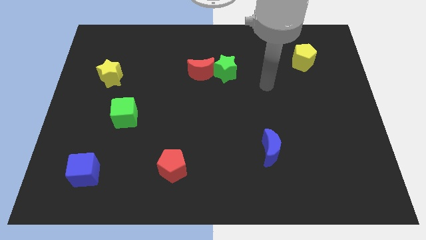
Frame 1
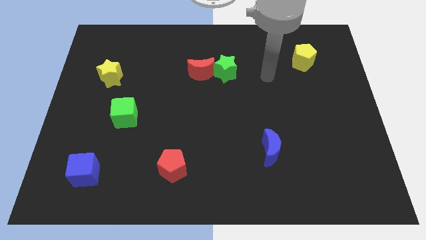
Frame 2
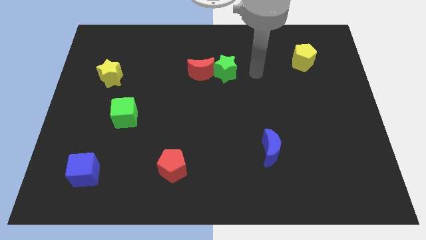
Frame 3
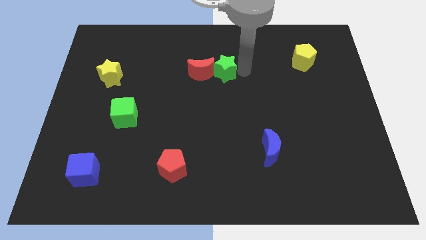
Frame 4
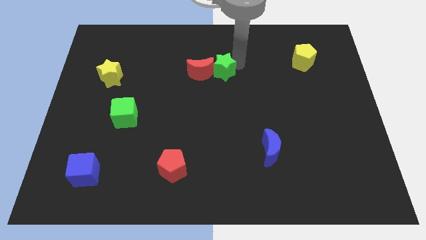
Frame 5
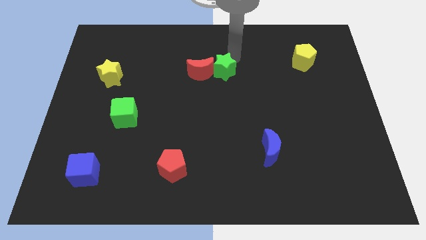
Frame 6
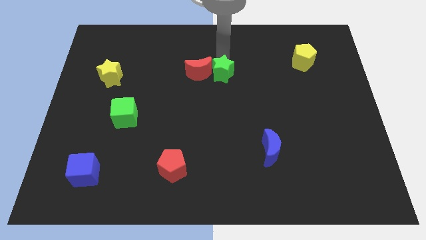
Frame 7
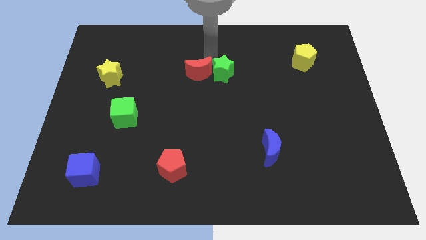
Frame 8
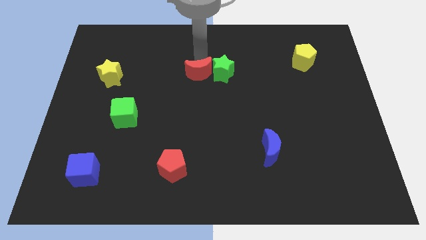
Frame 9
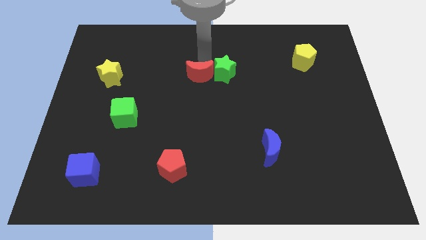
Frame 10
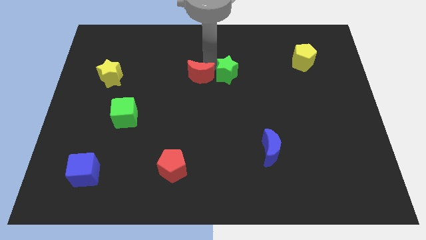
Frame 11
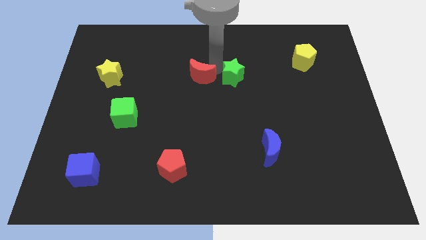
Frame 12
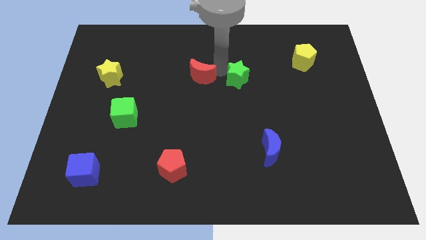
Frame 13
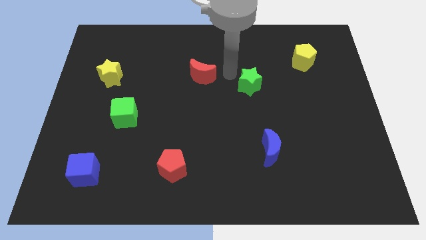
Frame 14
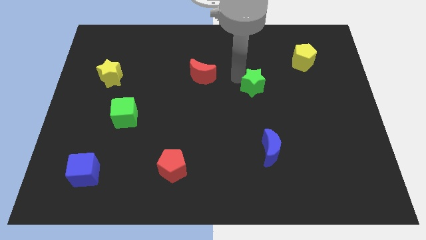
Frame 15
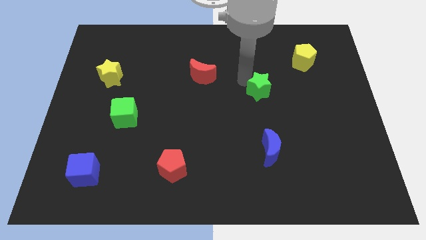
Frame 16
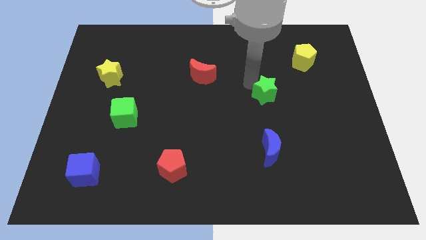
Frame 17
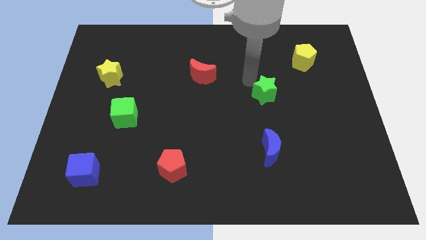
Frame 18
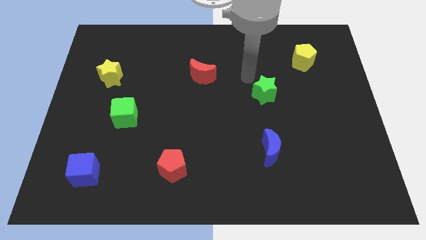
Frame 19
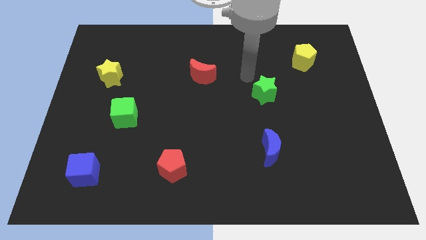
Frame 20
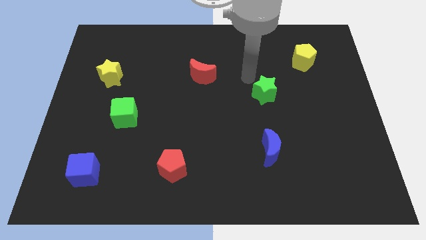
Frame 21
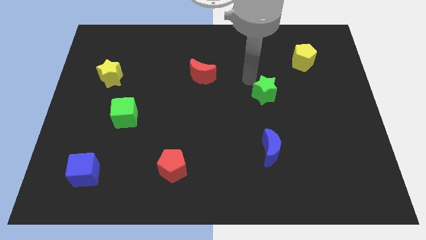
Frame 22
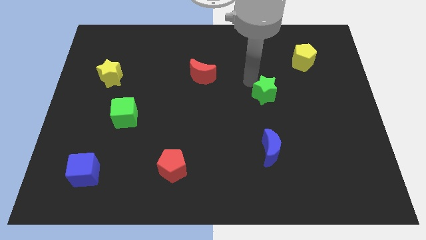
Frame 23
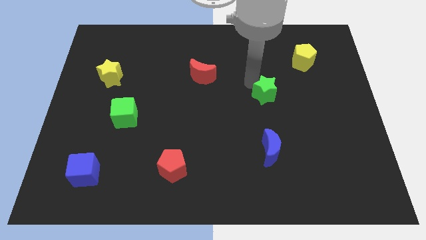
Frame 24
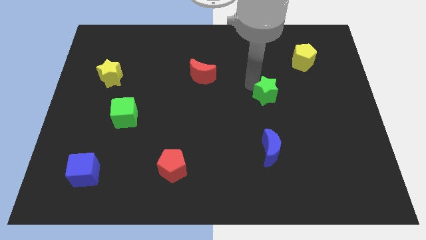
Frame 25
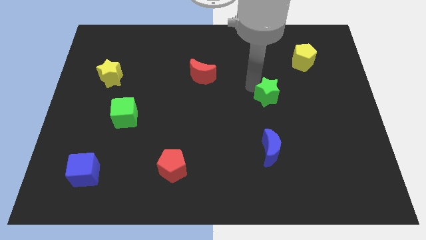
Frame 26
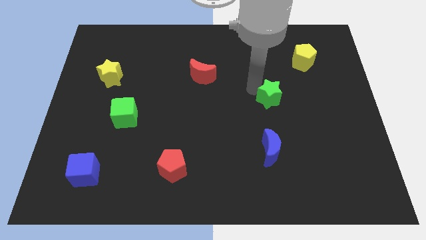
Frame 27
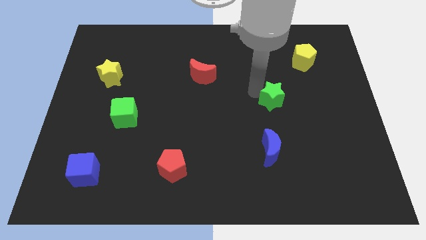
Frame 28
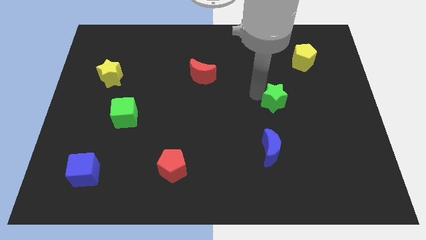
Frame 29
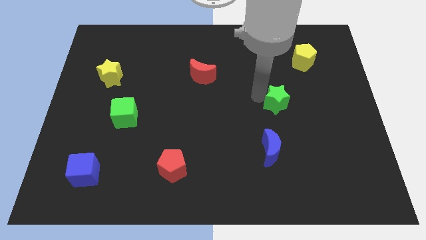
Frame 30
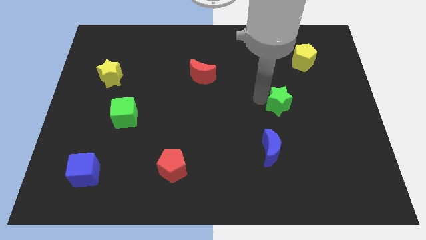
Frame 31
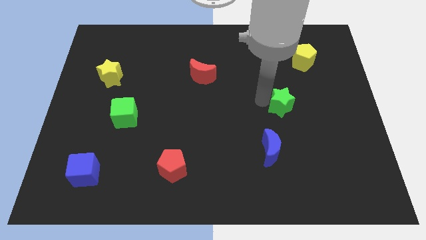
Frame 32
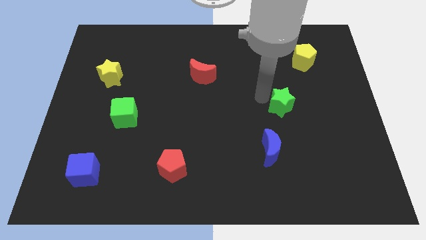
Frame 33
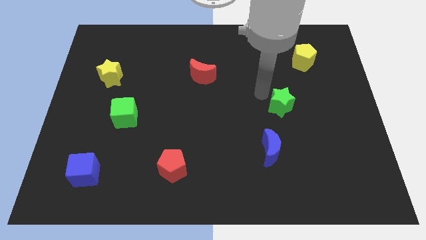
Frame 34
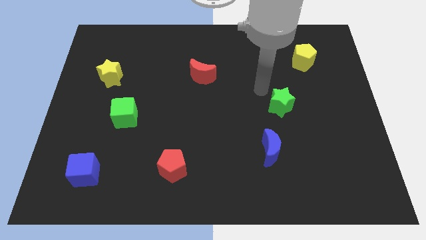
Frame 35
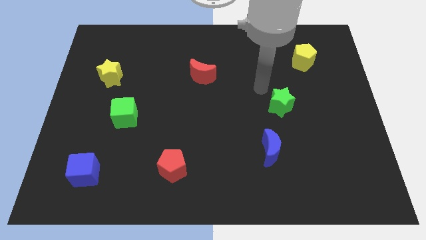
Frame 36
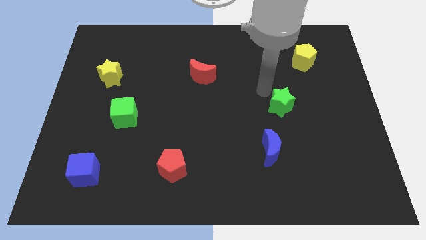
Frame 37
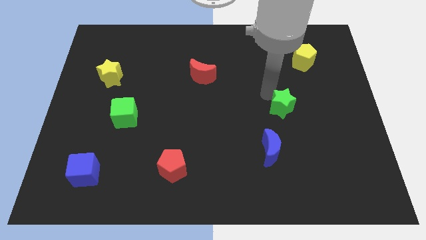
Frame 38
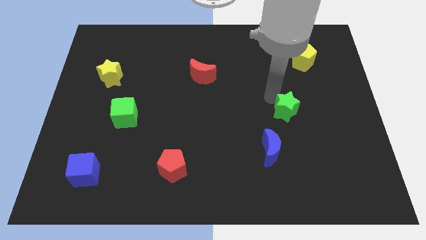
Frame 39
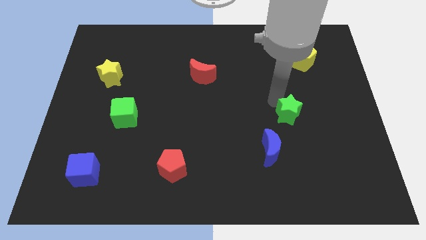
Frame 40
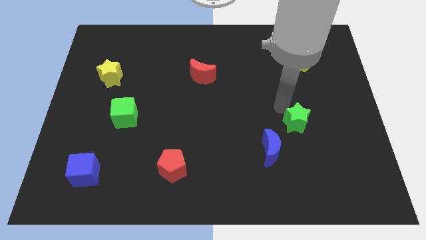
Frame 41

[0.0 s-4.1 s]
move the green star diagonally down and right

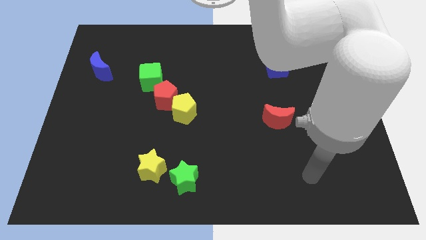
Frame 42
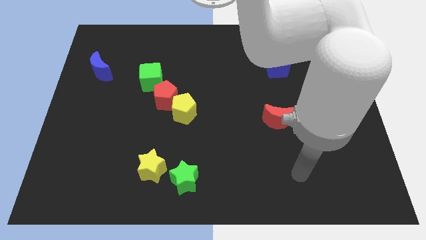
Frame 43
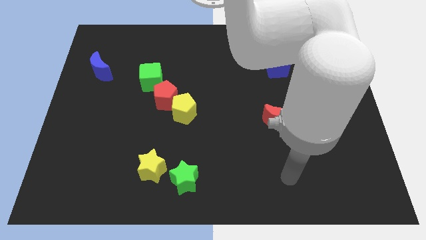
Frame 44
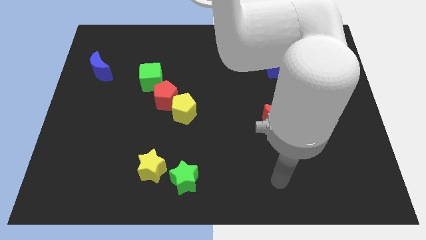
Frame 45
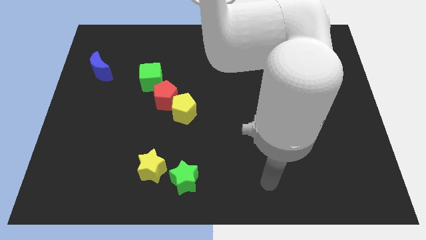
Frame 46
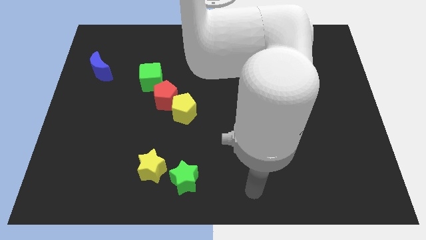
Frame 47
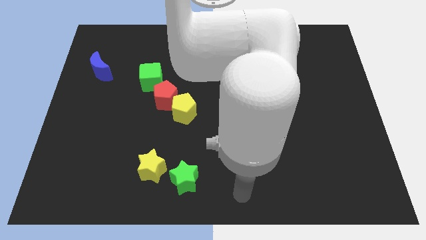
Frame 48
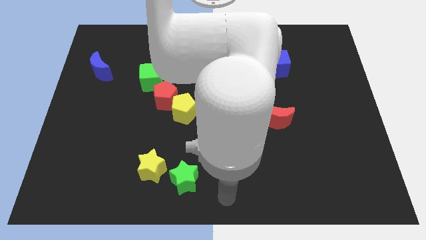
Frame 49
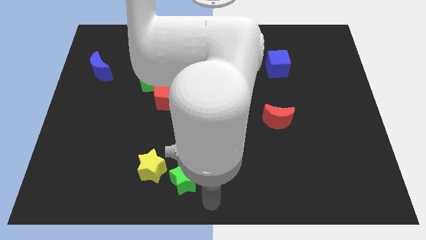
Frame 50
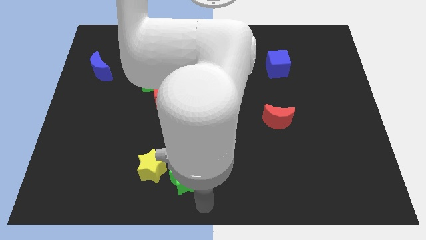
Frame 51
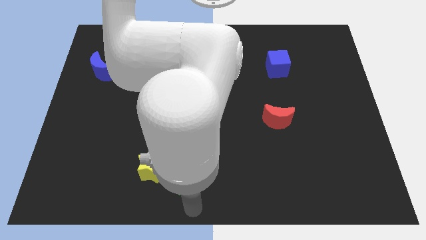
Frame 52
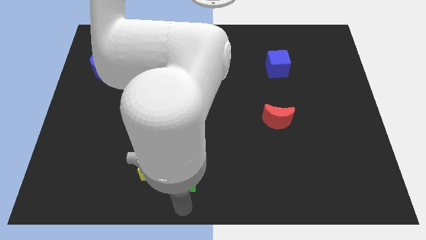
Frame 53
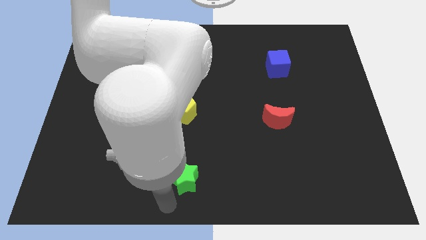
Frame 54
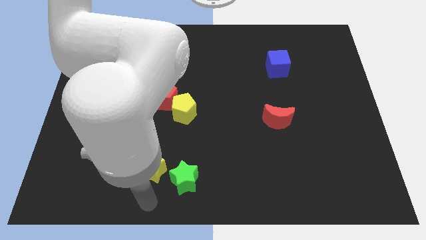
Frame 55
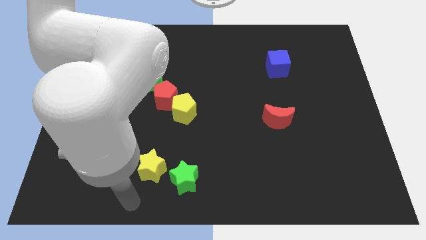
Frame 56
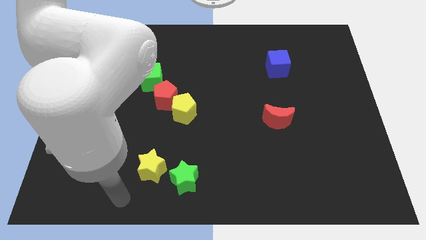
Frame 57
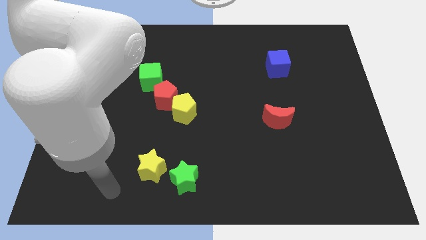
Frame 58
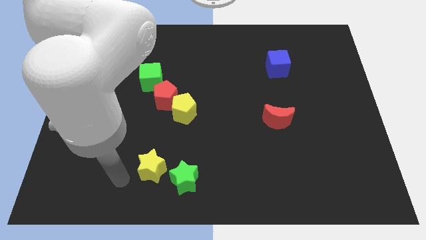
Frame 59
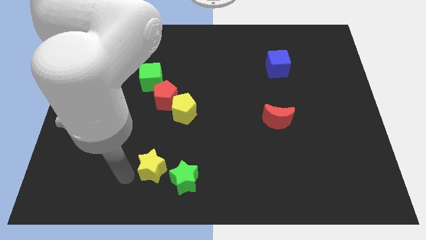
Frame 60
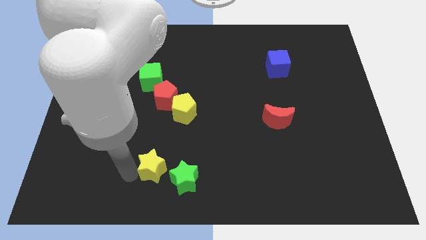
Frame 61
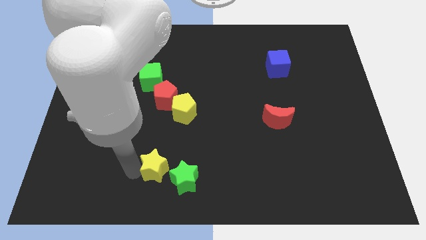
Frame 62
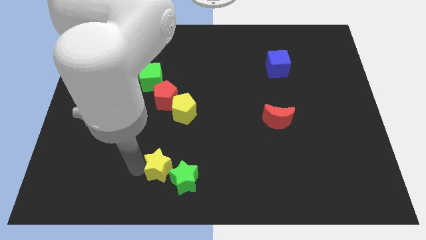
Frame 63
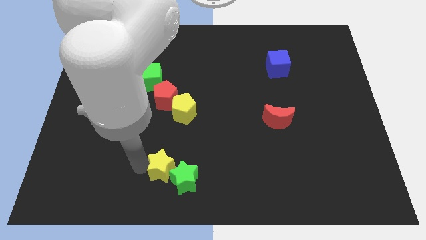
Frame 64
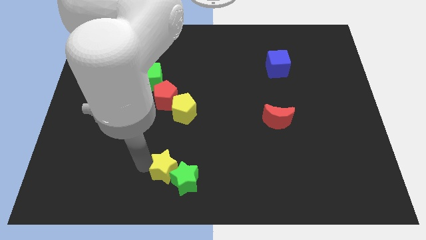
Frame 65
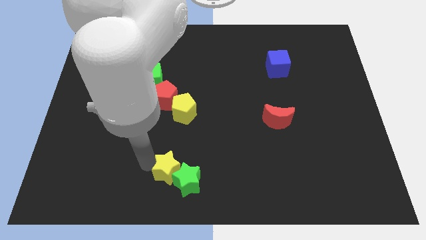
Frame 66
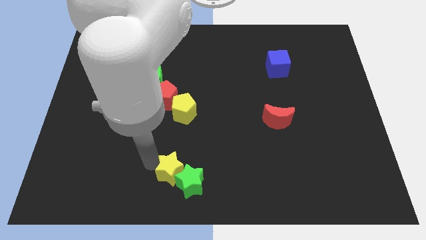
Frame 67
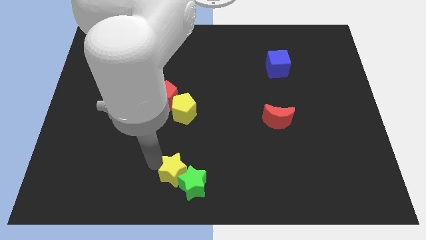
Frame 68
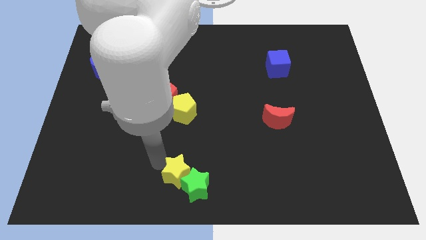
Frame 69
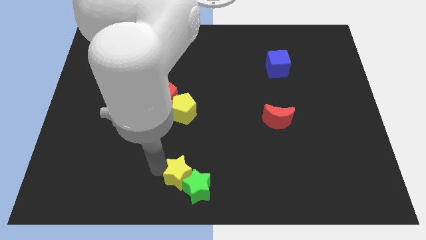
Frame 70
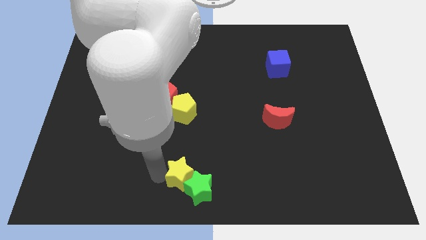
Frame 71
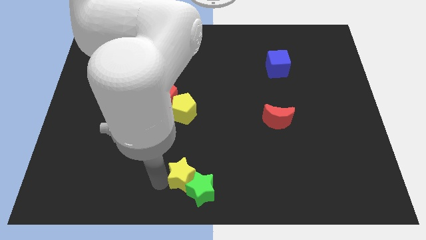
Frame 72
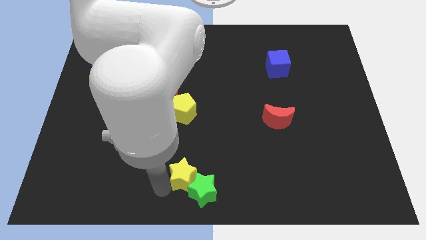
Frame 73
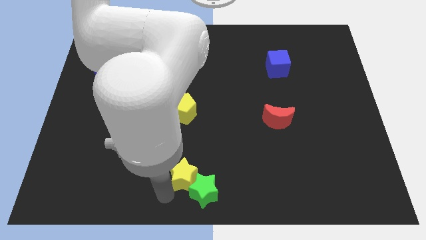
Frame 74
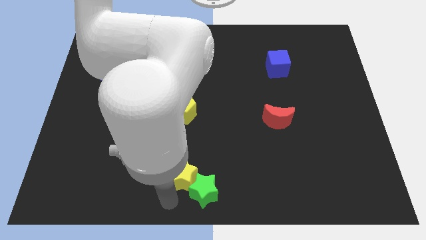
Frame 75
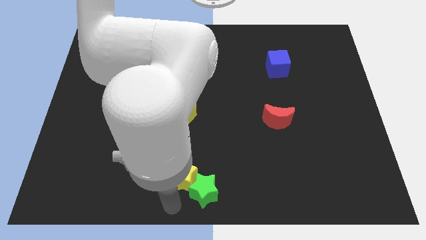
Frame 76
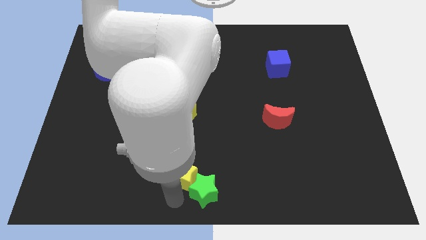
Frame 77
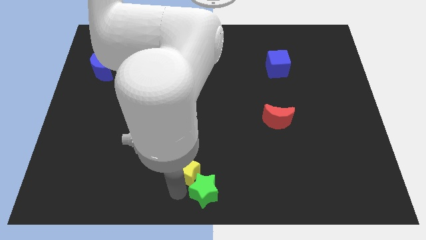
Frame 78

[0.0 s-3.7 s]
slide the yellow star somewhat right
